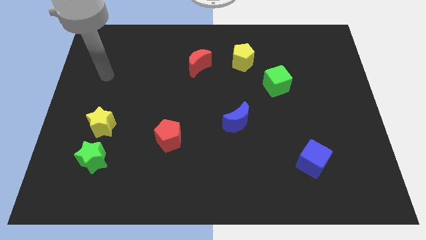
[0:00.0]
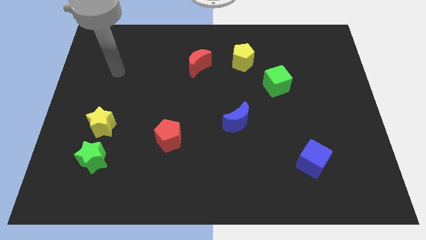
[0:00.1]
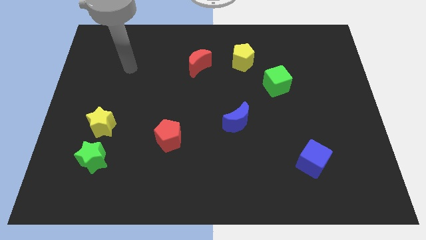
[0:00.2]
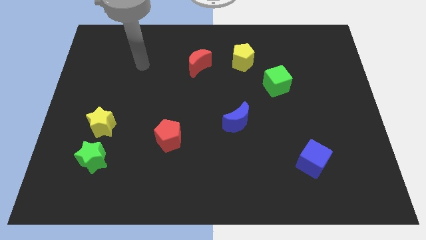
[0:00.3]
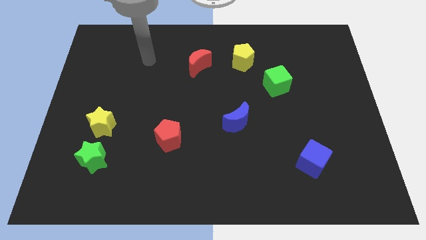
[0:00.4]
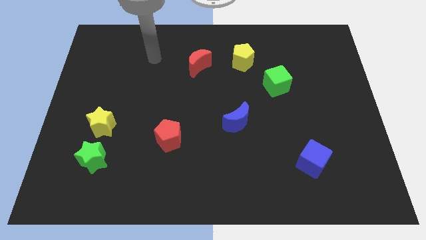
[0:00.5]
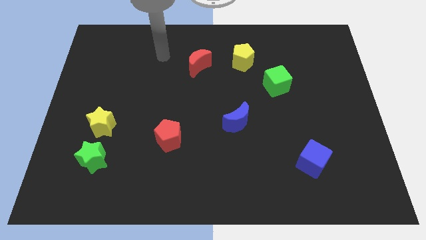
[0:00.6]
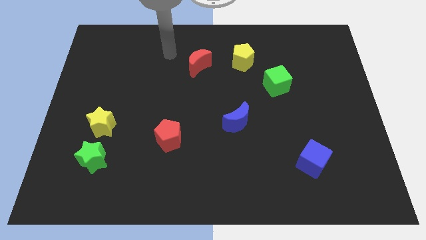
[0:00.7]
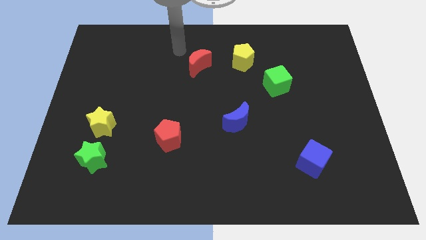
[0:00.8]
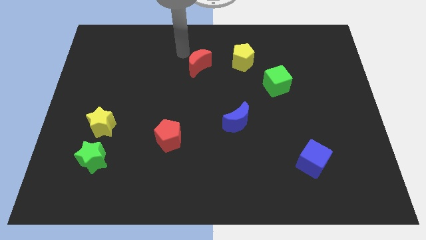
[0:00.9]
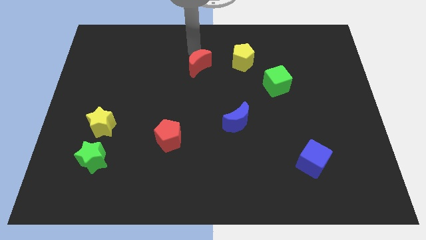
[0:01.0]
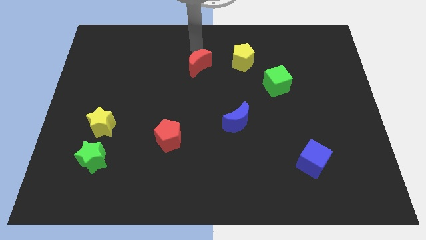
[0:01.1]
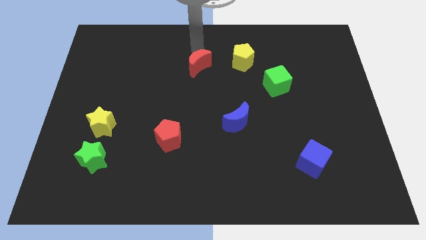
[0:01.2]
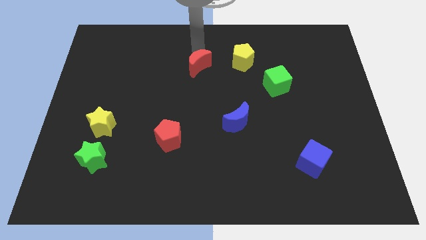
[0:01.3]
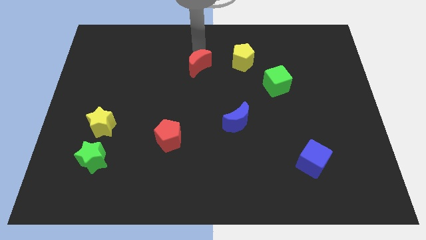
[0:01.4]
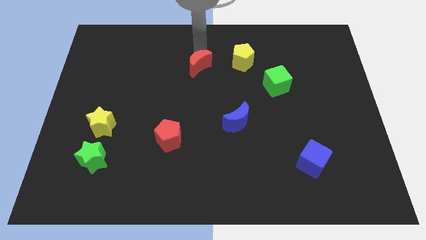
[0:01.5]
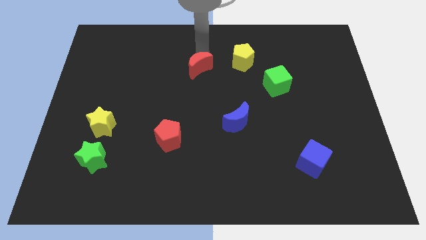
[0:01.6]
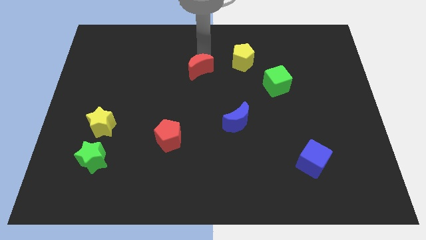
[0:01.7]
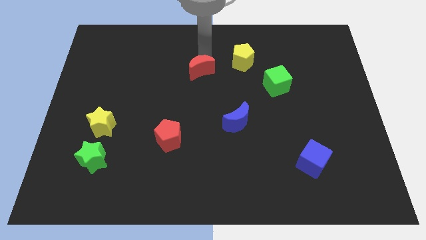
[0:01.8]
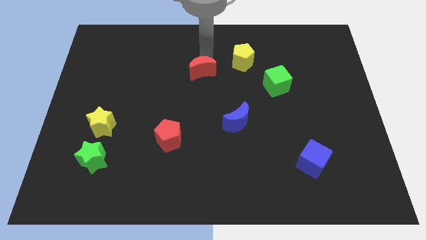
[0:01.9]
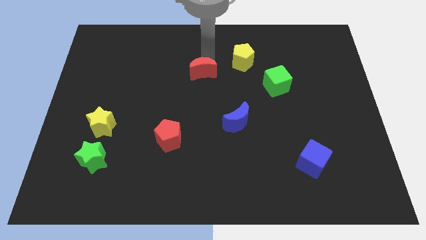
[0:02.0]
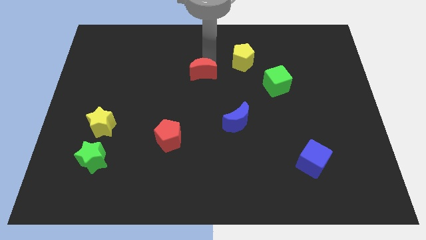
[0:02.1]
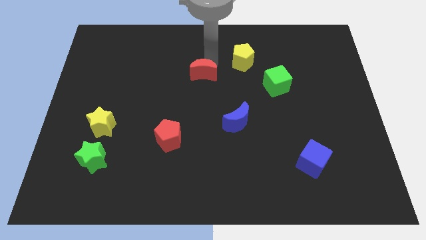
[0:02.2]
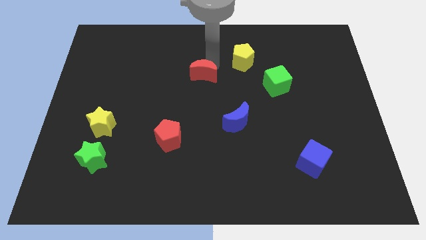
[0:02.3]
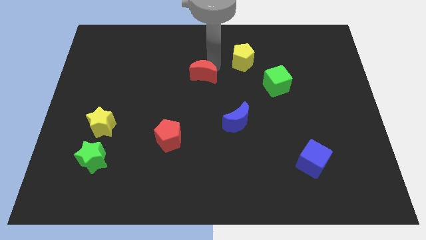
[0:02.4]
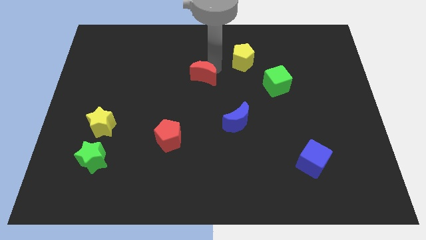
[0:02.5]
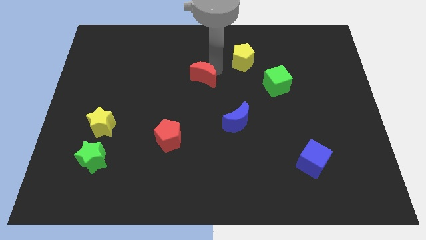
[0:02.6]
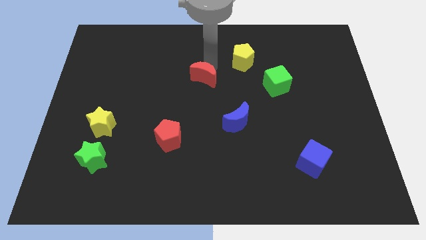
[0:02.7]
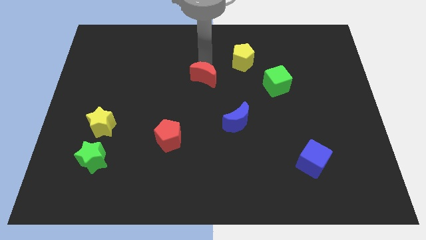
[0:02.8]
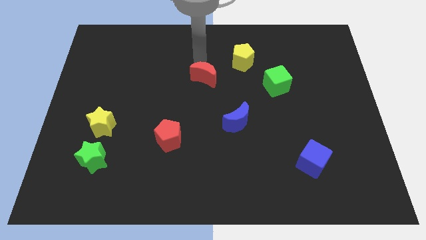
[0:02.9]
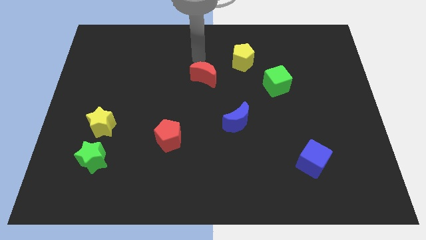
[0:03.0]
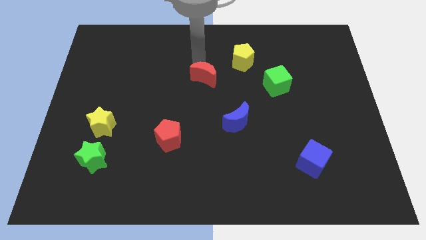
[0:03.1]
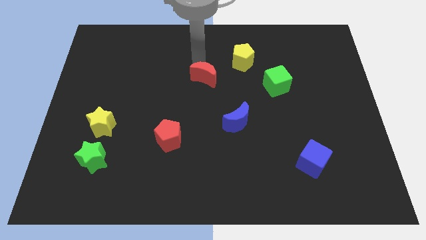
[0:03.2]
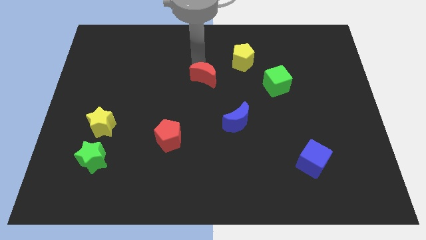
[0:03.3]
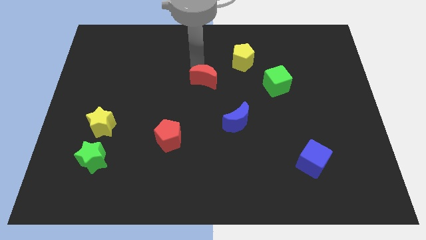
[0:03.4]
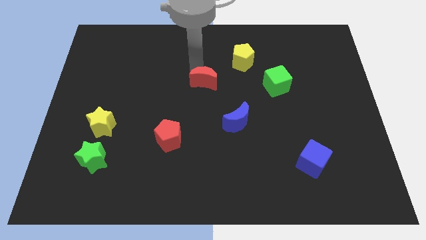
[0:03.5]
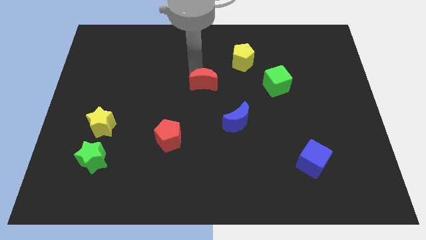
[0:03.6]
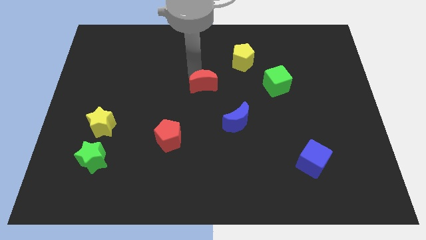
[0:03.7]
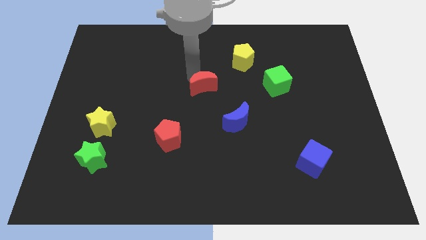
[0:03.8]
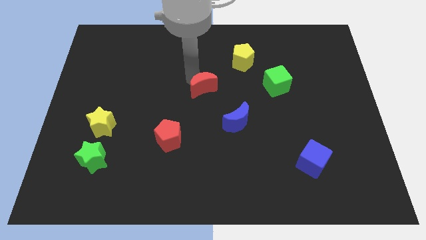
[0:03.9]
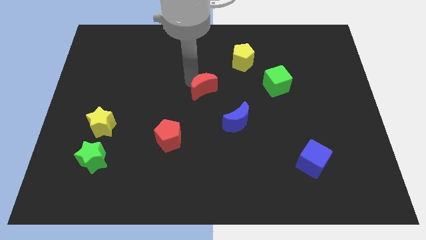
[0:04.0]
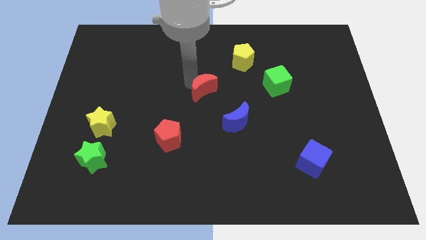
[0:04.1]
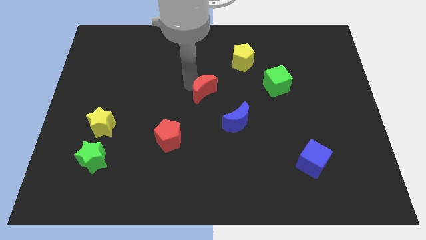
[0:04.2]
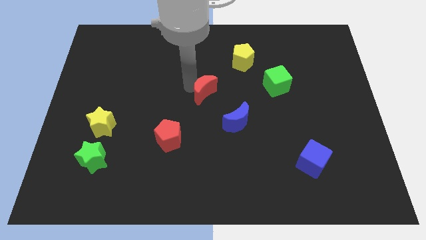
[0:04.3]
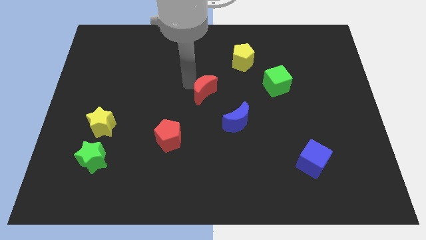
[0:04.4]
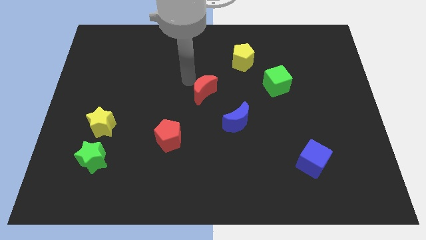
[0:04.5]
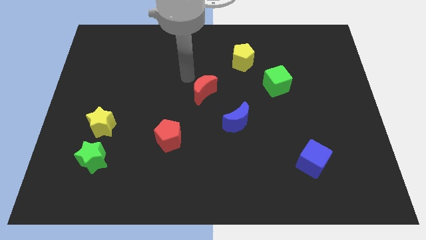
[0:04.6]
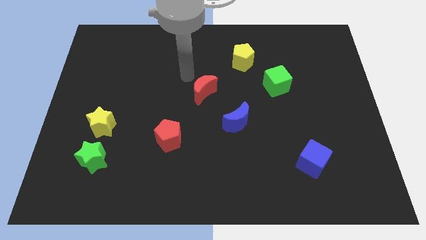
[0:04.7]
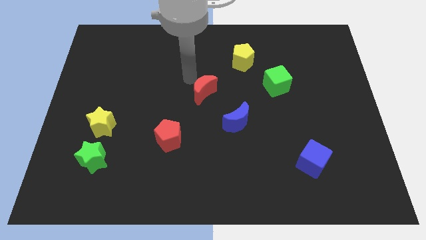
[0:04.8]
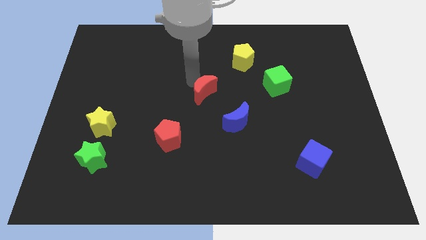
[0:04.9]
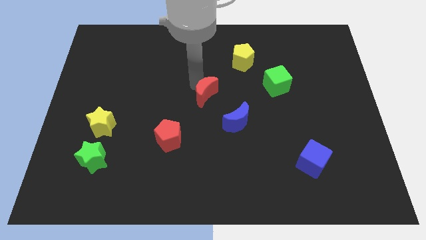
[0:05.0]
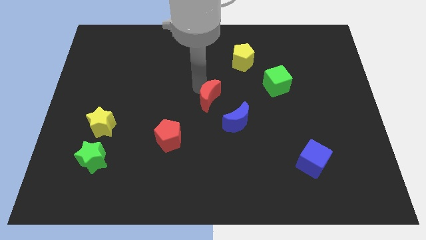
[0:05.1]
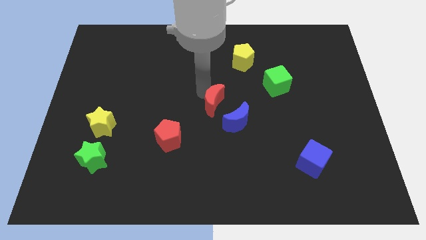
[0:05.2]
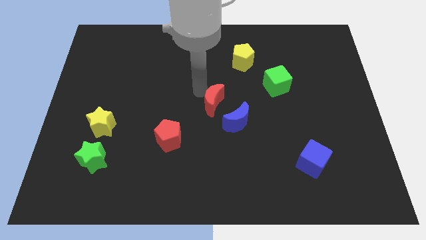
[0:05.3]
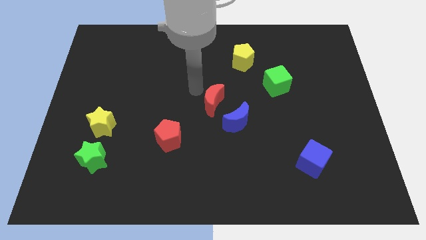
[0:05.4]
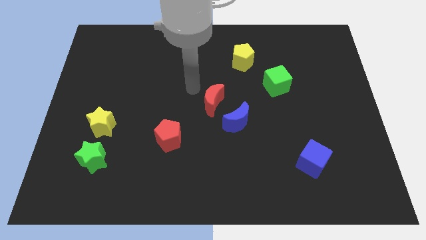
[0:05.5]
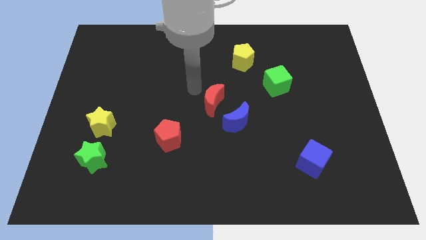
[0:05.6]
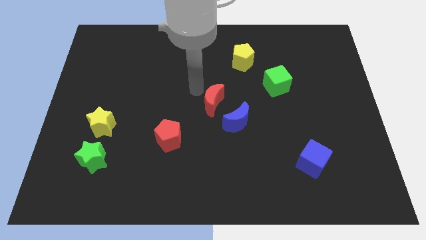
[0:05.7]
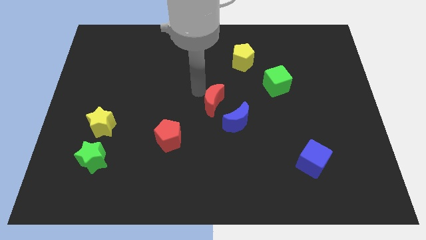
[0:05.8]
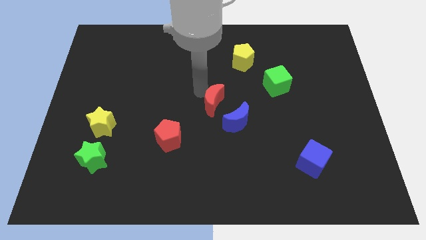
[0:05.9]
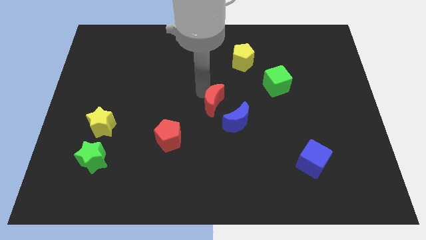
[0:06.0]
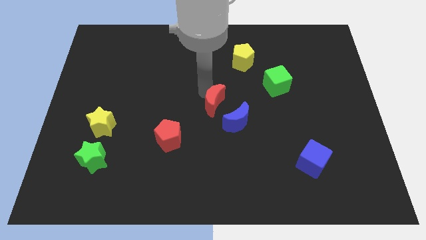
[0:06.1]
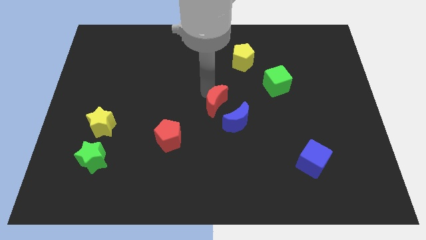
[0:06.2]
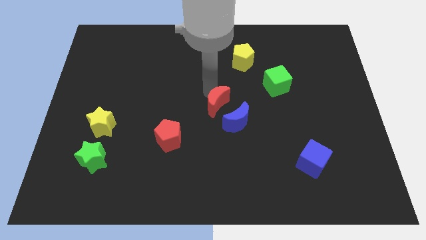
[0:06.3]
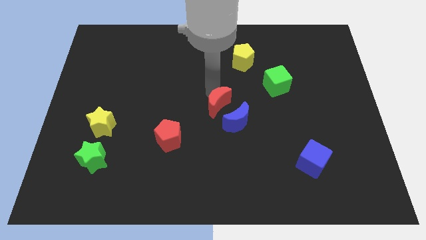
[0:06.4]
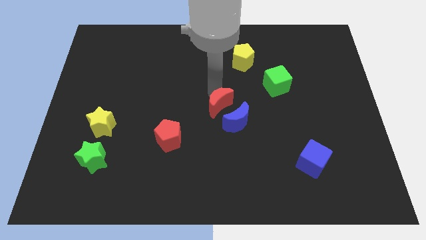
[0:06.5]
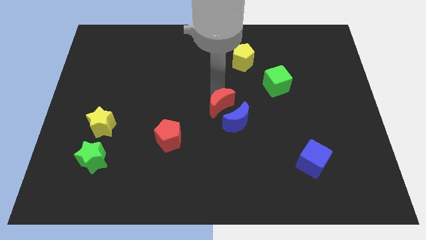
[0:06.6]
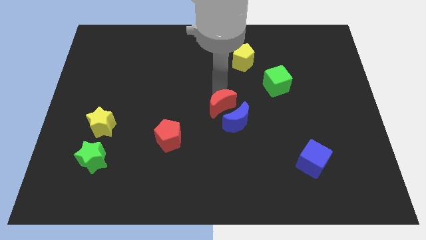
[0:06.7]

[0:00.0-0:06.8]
put the red moon next to the blue moon

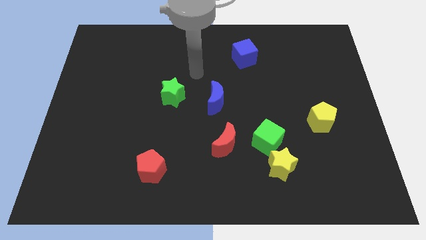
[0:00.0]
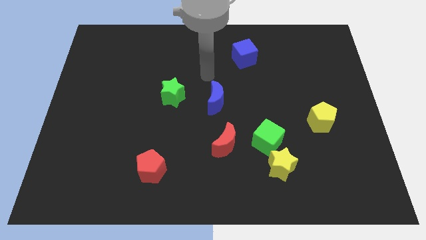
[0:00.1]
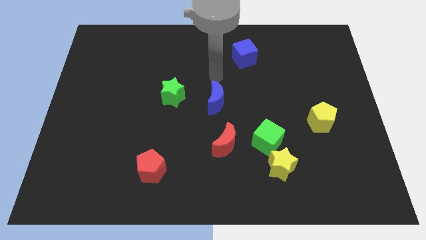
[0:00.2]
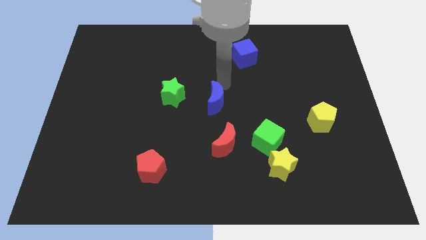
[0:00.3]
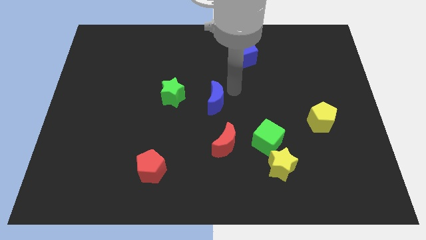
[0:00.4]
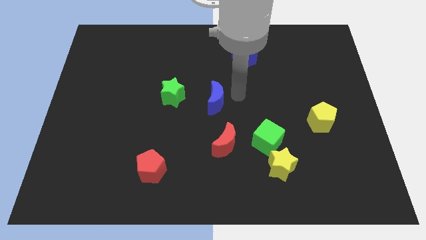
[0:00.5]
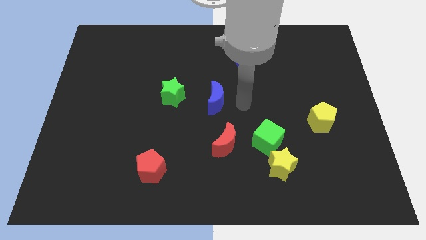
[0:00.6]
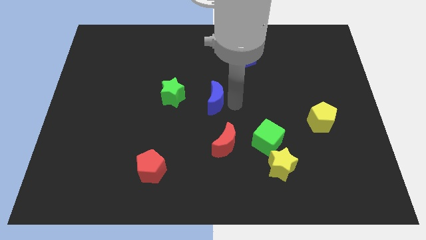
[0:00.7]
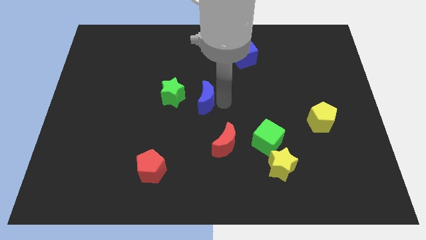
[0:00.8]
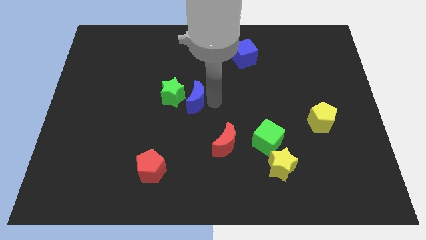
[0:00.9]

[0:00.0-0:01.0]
push the blue moon next to the green star

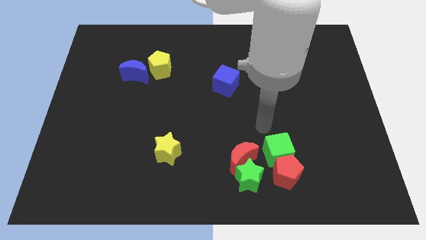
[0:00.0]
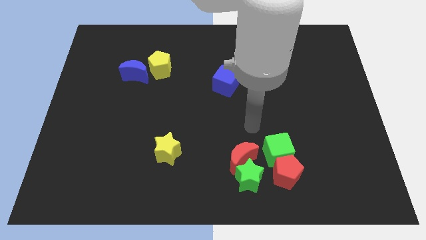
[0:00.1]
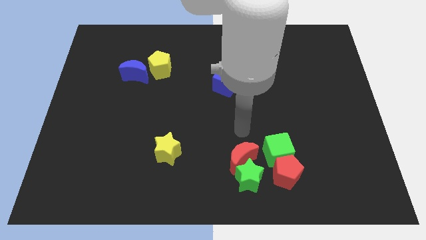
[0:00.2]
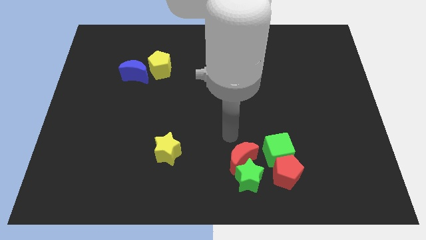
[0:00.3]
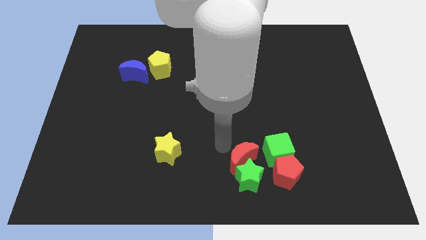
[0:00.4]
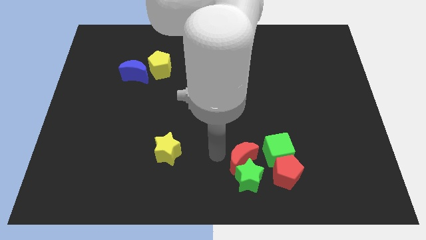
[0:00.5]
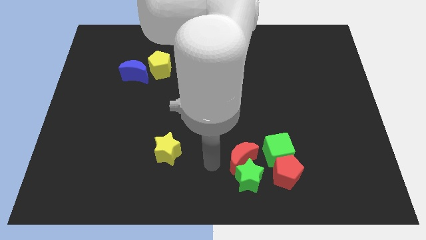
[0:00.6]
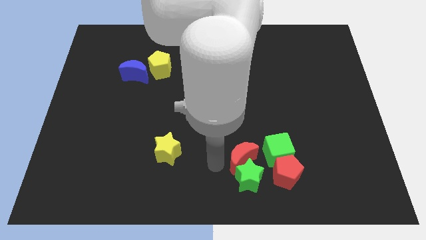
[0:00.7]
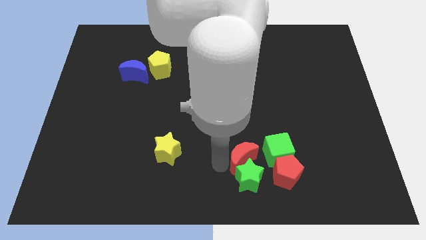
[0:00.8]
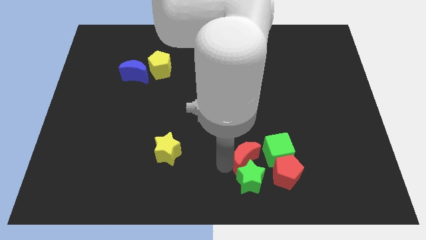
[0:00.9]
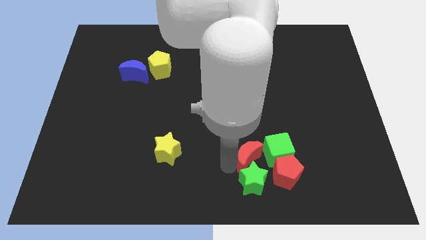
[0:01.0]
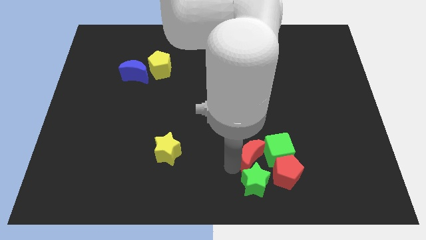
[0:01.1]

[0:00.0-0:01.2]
push the red moon next to the green cube
